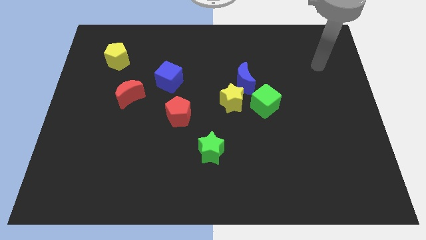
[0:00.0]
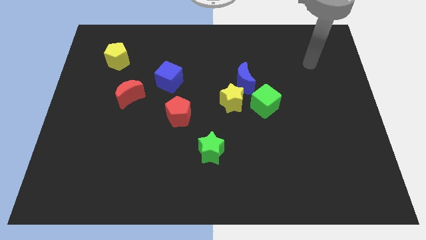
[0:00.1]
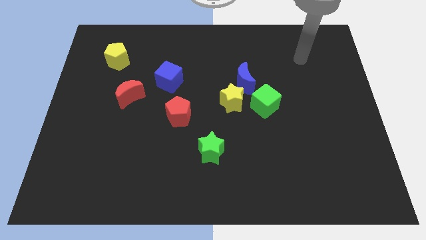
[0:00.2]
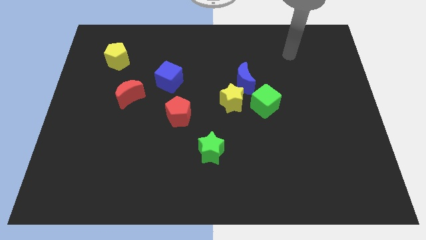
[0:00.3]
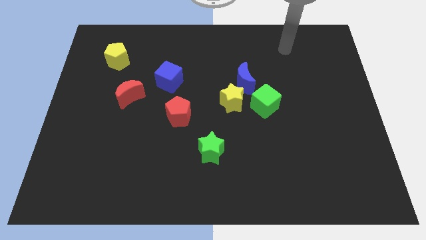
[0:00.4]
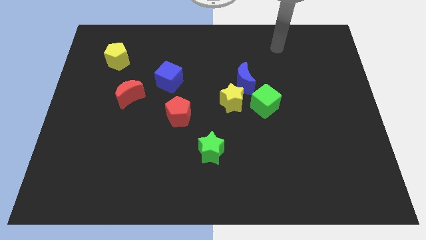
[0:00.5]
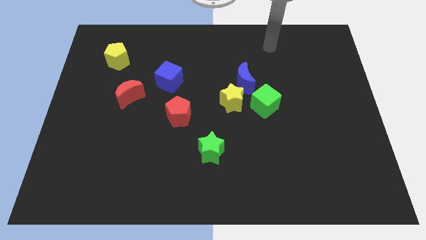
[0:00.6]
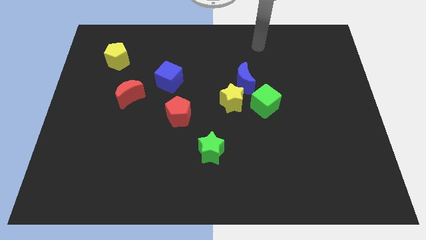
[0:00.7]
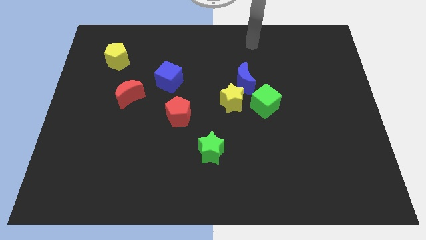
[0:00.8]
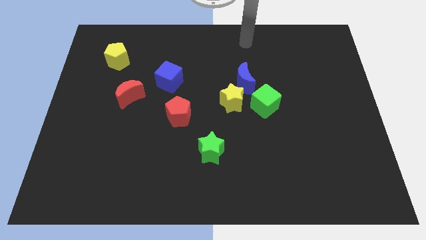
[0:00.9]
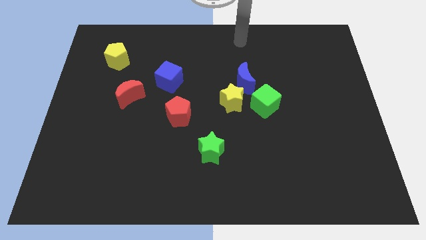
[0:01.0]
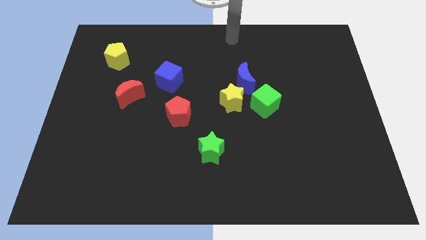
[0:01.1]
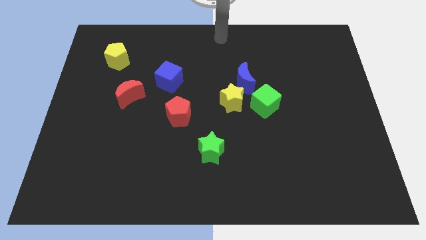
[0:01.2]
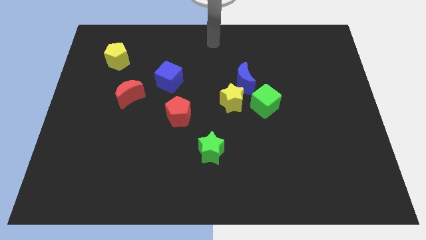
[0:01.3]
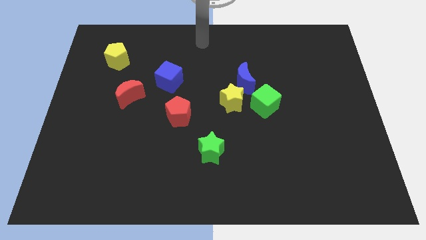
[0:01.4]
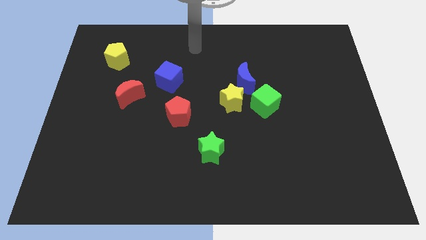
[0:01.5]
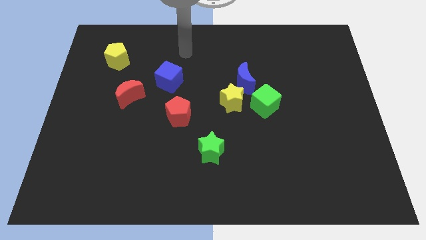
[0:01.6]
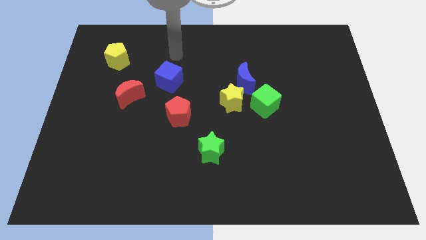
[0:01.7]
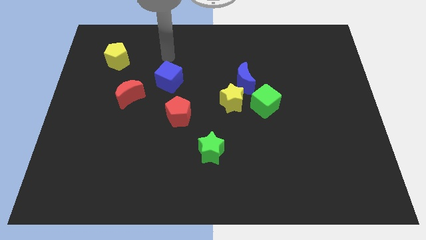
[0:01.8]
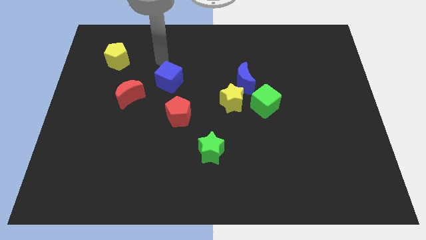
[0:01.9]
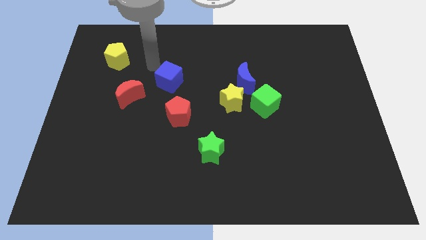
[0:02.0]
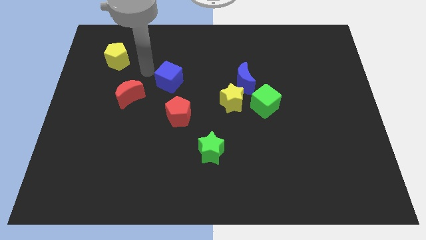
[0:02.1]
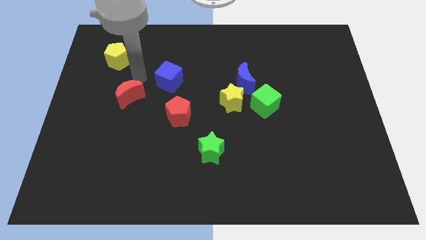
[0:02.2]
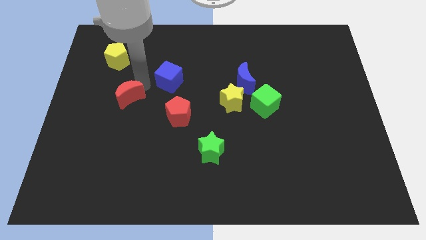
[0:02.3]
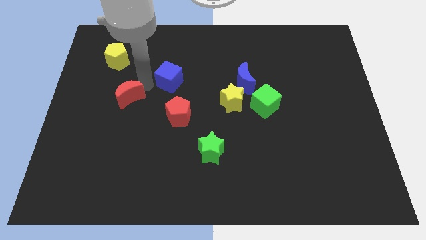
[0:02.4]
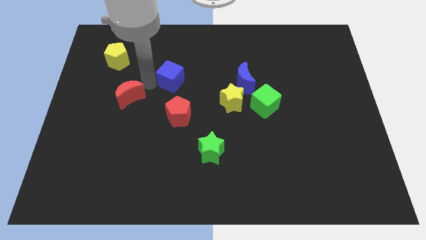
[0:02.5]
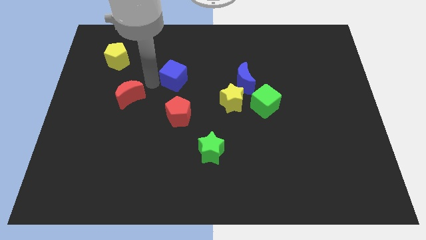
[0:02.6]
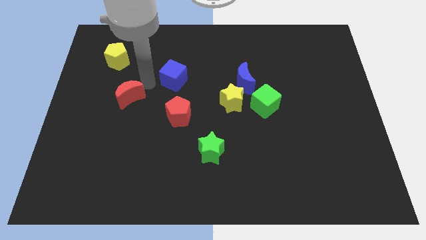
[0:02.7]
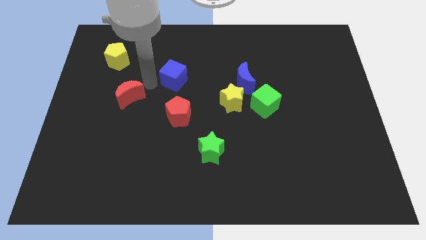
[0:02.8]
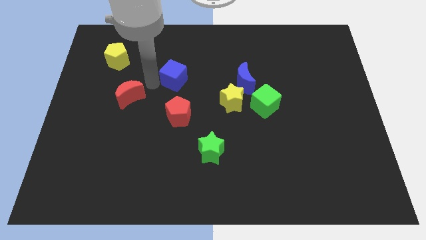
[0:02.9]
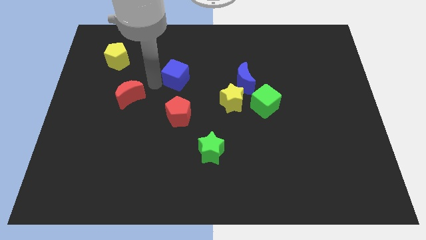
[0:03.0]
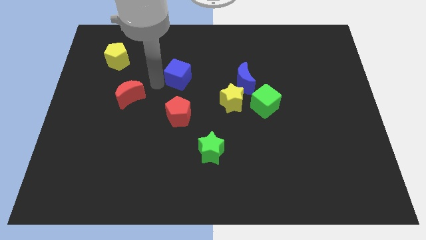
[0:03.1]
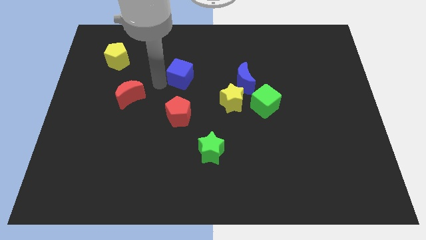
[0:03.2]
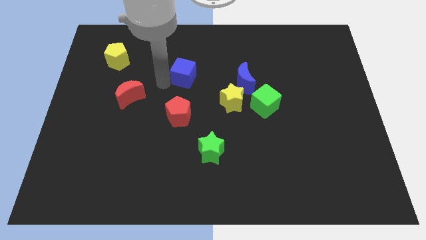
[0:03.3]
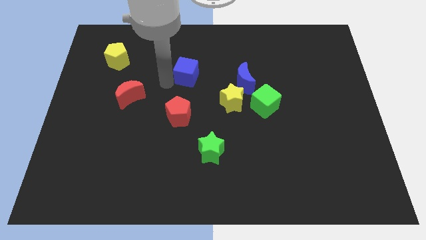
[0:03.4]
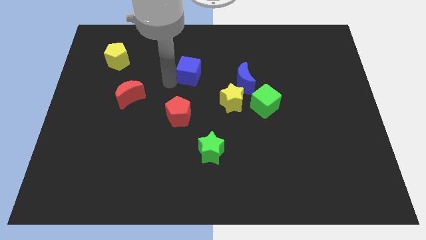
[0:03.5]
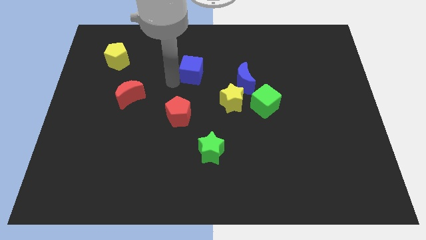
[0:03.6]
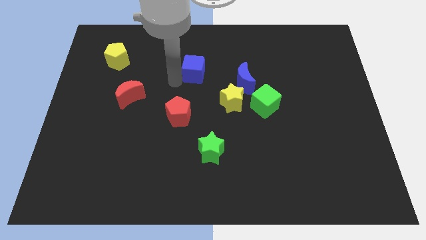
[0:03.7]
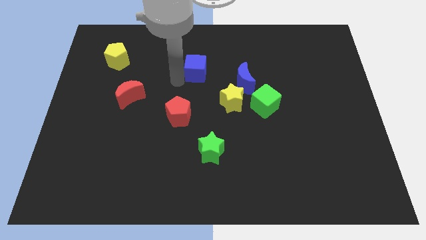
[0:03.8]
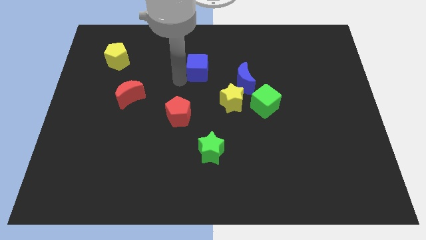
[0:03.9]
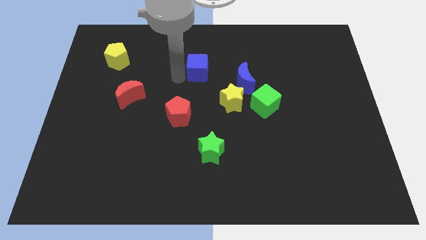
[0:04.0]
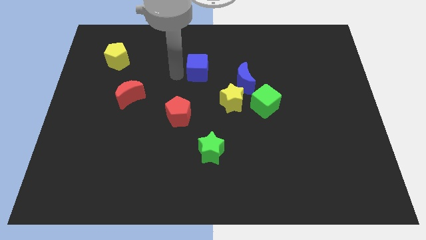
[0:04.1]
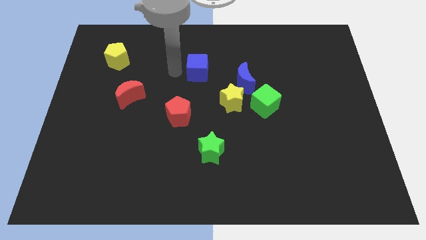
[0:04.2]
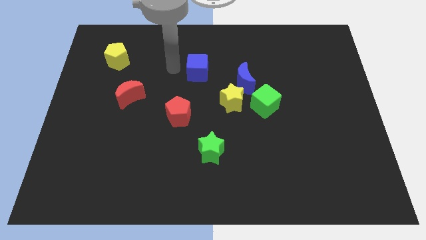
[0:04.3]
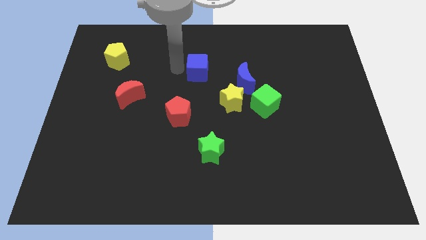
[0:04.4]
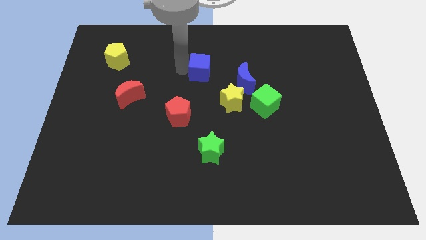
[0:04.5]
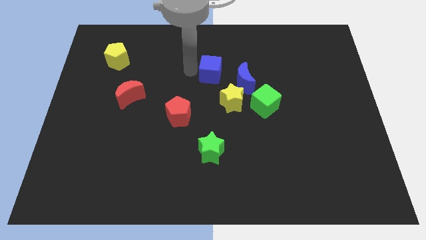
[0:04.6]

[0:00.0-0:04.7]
move the blue cube to the top of the yellow star

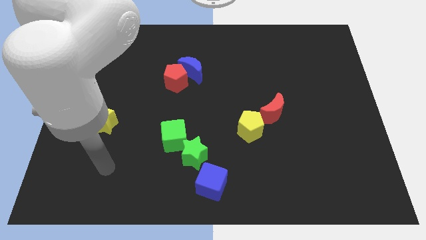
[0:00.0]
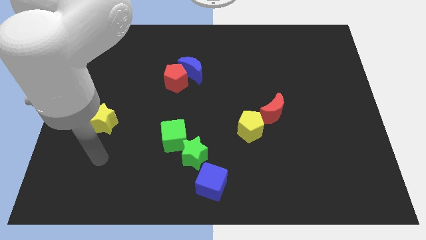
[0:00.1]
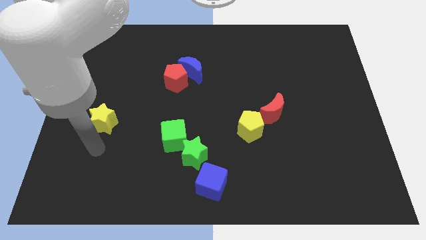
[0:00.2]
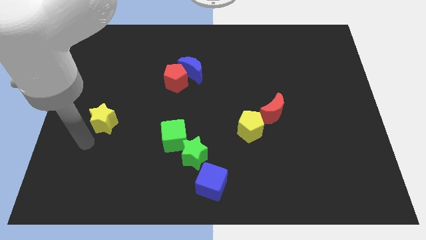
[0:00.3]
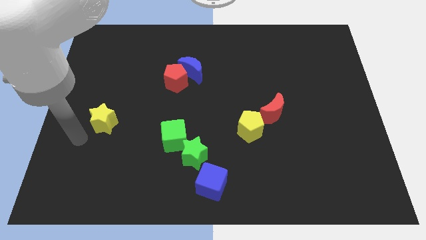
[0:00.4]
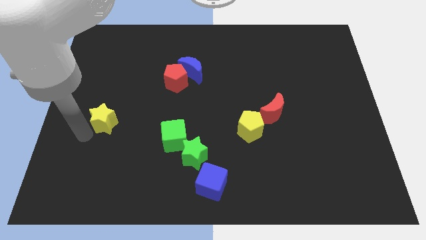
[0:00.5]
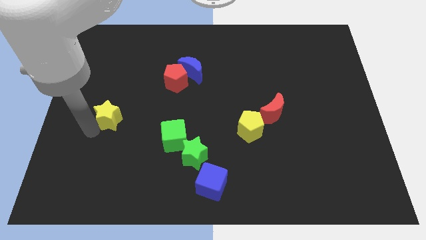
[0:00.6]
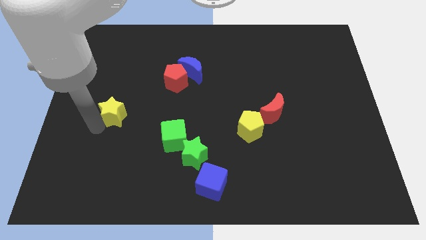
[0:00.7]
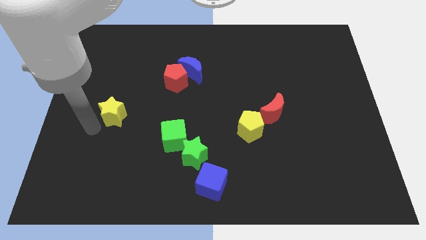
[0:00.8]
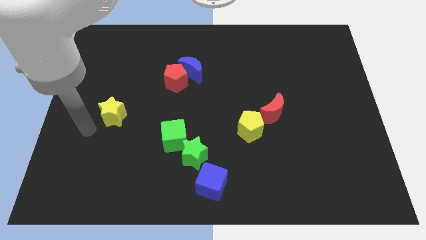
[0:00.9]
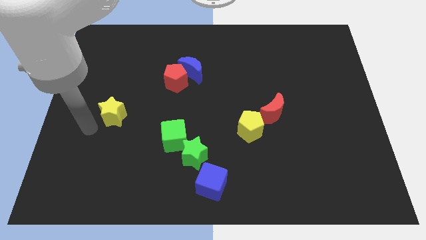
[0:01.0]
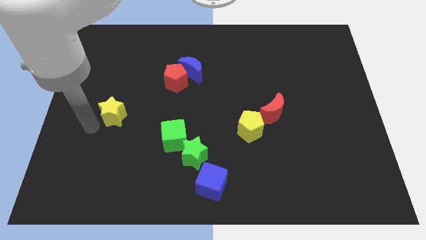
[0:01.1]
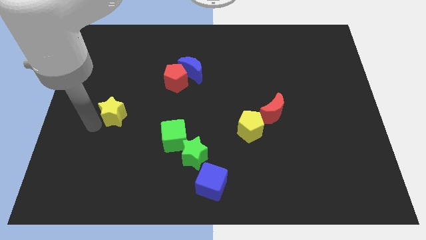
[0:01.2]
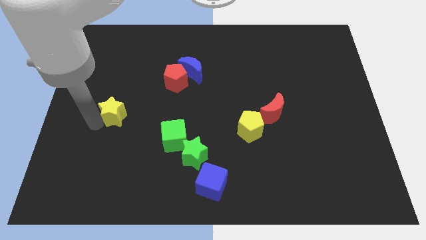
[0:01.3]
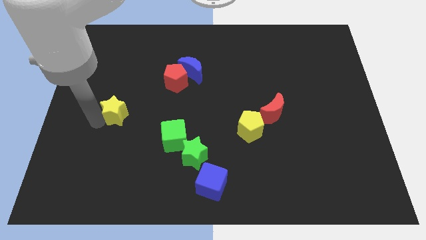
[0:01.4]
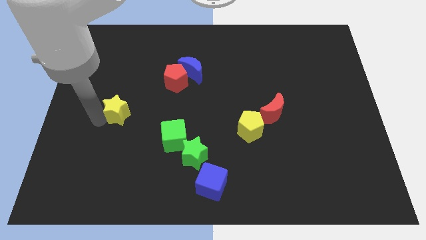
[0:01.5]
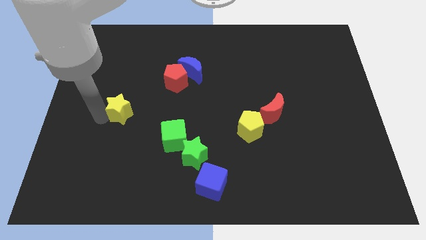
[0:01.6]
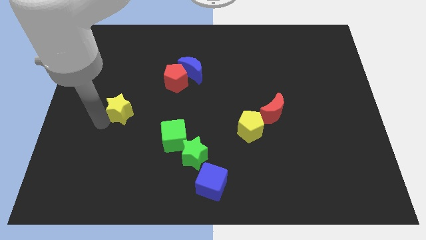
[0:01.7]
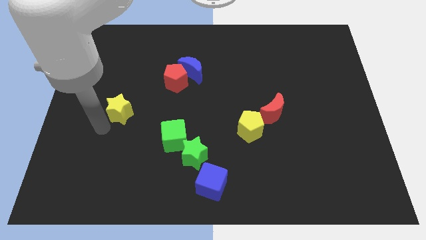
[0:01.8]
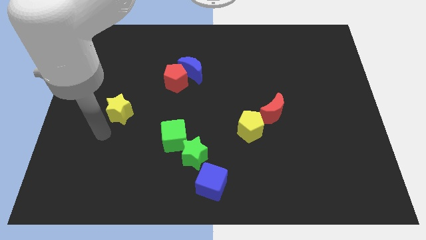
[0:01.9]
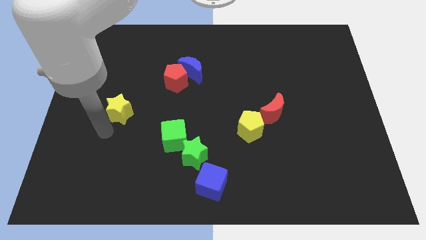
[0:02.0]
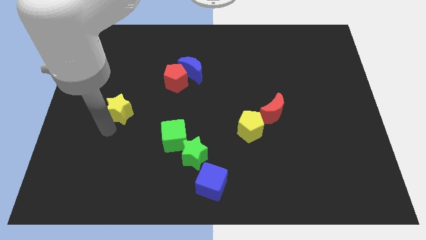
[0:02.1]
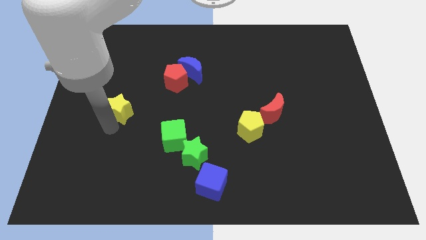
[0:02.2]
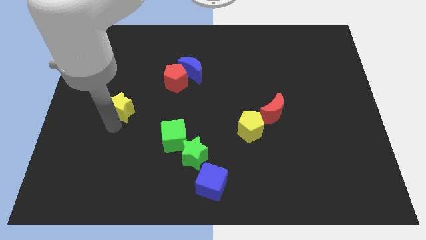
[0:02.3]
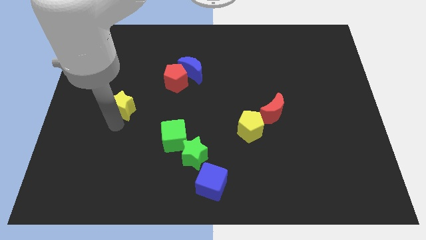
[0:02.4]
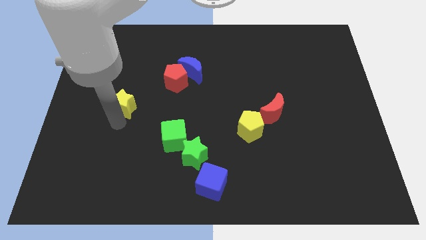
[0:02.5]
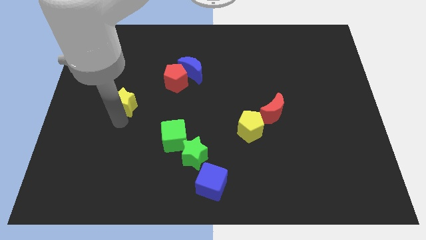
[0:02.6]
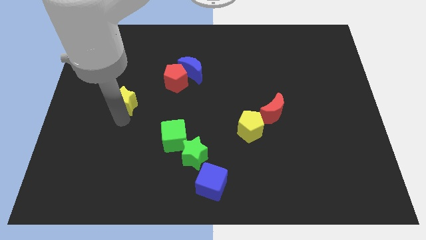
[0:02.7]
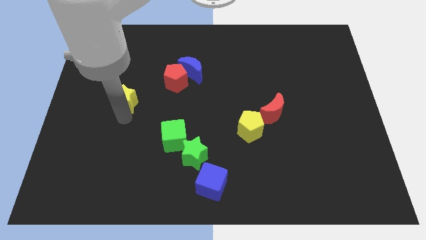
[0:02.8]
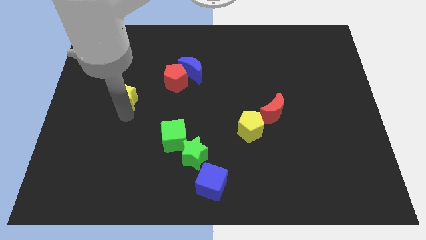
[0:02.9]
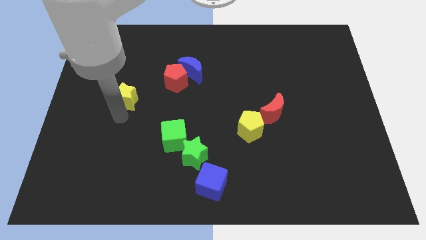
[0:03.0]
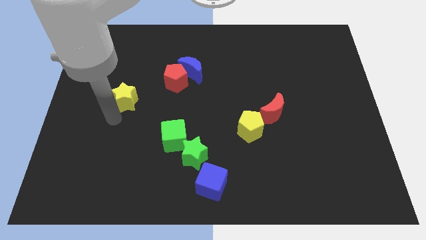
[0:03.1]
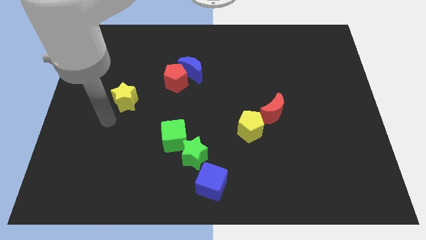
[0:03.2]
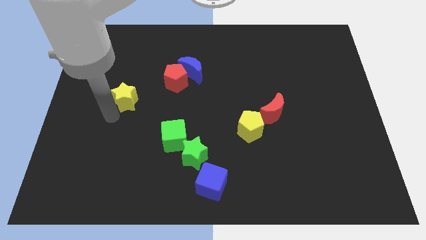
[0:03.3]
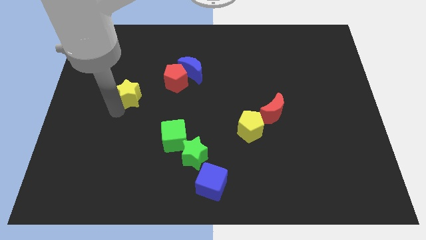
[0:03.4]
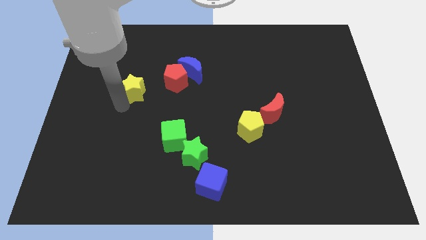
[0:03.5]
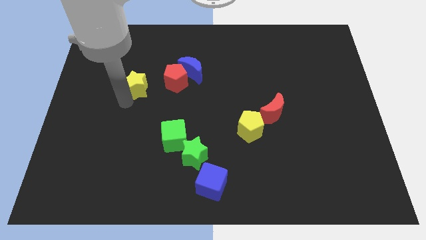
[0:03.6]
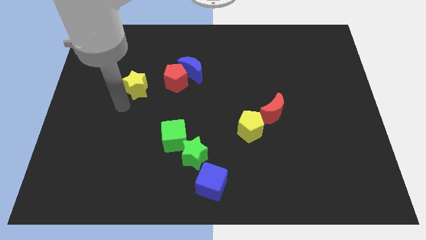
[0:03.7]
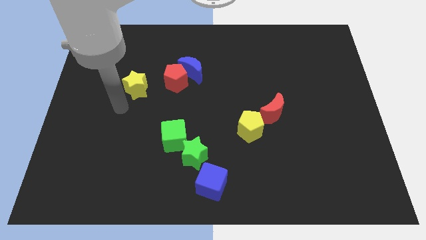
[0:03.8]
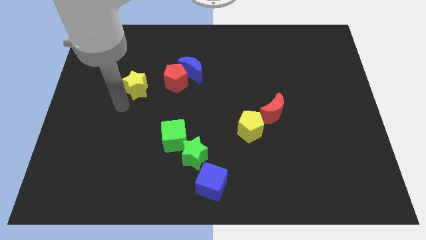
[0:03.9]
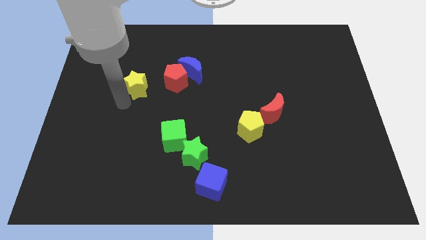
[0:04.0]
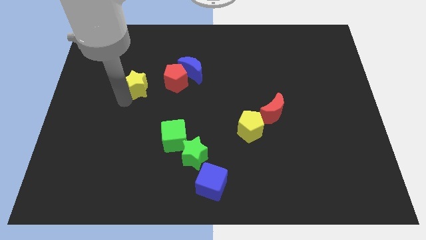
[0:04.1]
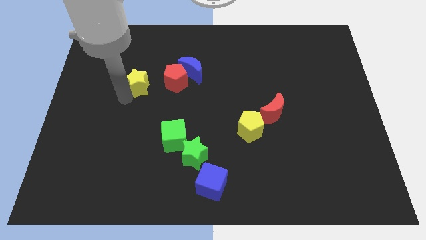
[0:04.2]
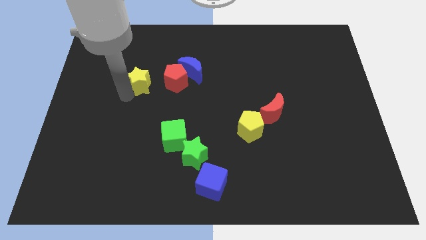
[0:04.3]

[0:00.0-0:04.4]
push the yellow star to the left of the blue moon
